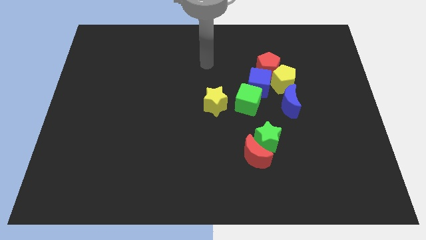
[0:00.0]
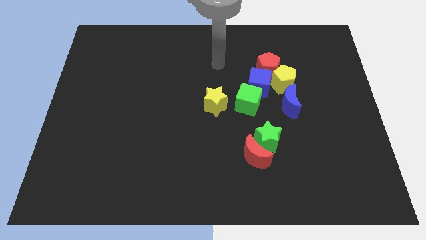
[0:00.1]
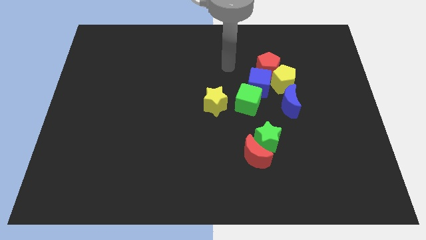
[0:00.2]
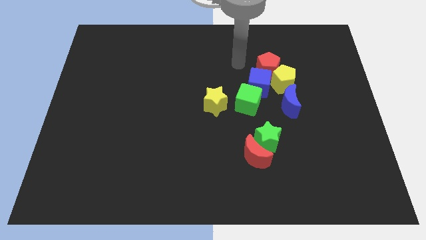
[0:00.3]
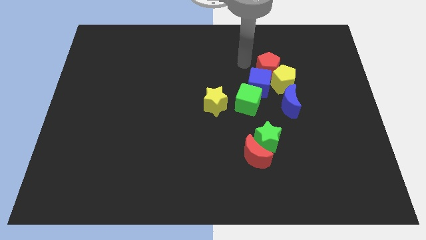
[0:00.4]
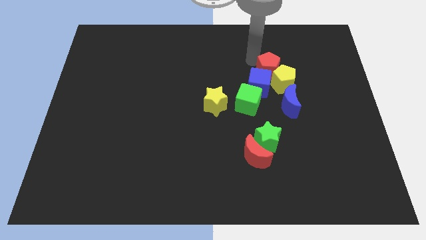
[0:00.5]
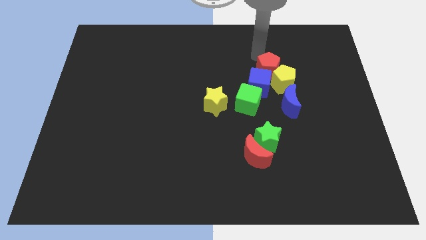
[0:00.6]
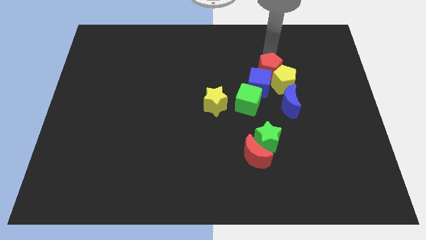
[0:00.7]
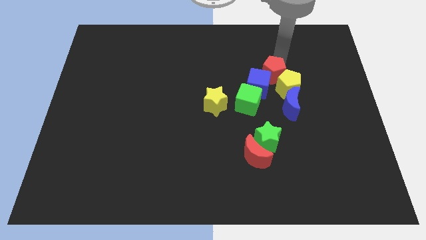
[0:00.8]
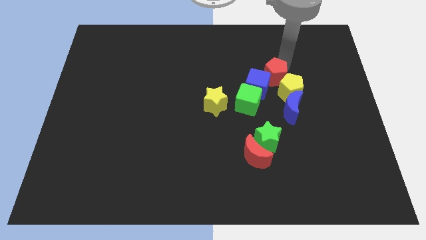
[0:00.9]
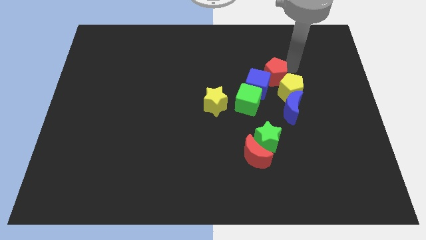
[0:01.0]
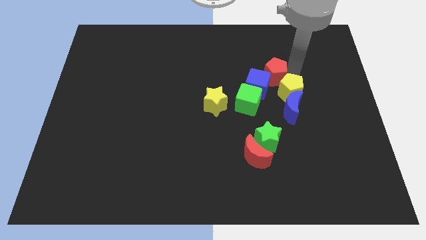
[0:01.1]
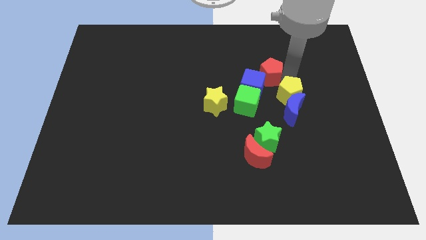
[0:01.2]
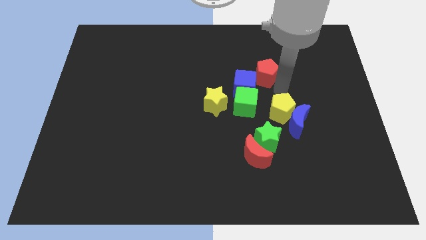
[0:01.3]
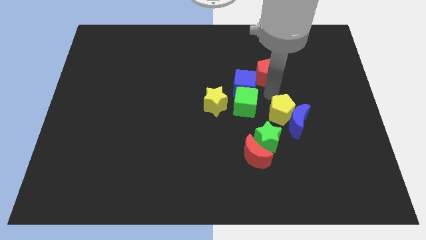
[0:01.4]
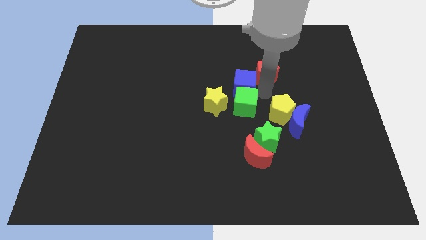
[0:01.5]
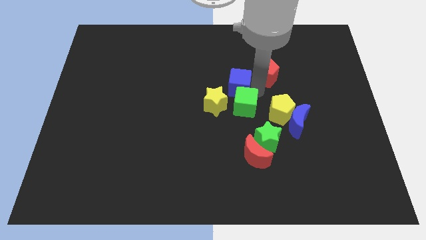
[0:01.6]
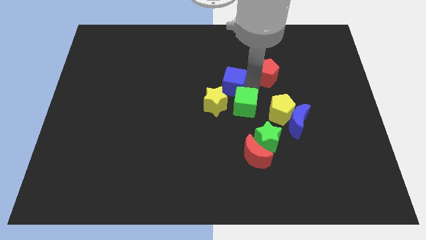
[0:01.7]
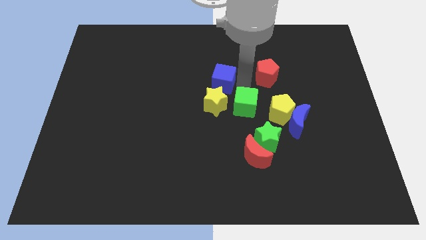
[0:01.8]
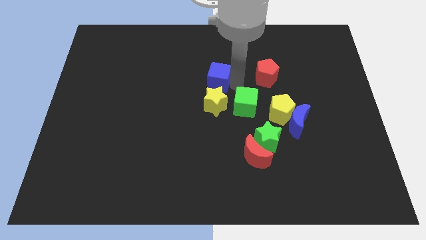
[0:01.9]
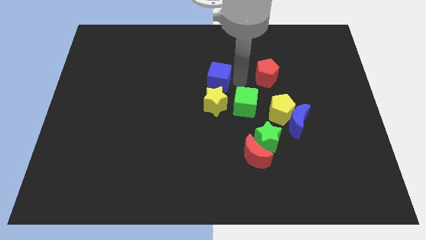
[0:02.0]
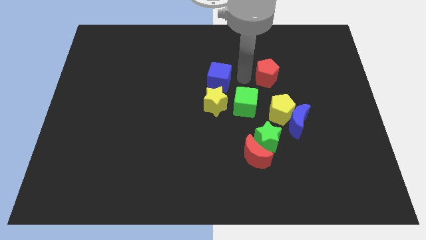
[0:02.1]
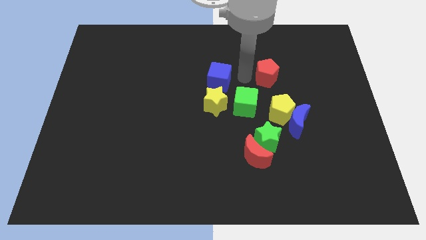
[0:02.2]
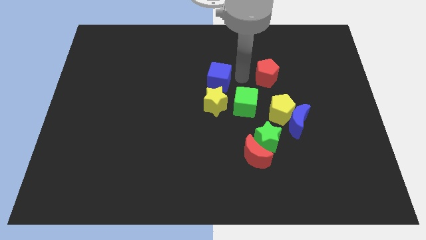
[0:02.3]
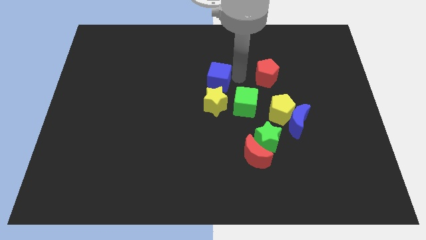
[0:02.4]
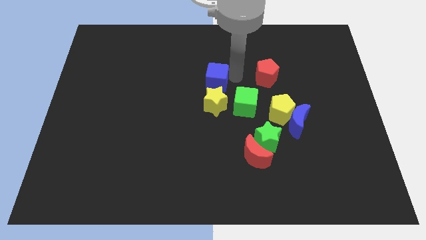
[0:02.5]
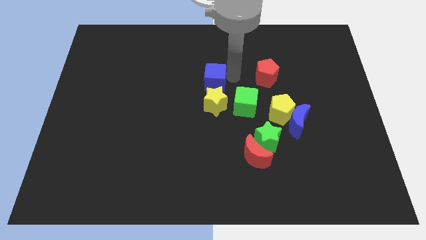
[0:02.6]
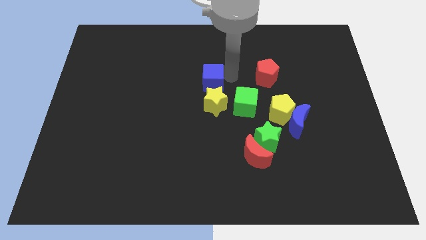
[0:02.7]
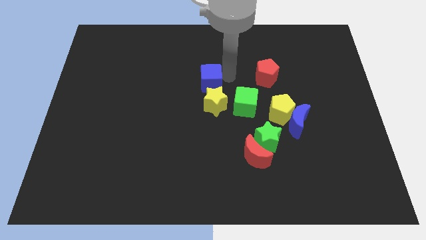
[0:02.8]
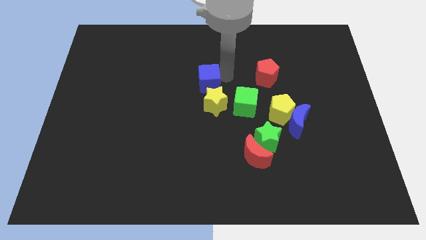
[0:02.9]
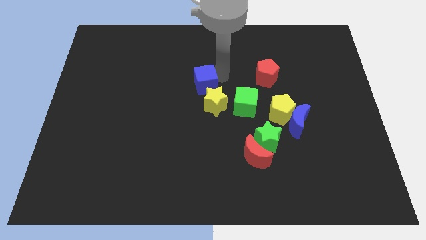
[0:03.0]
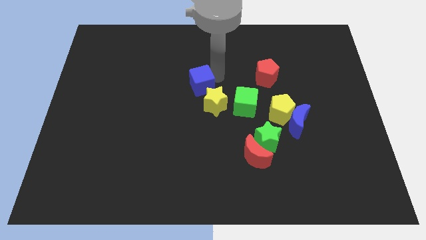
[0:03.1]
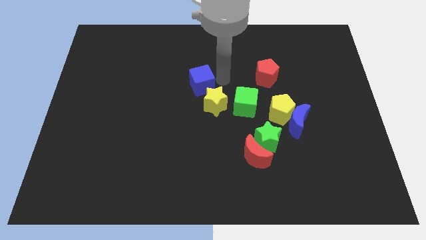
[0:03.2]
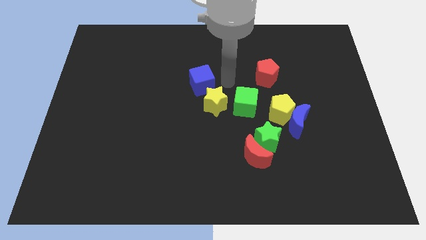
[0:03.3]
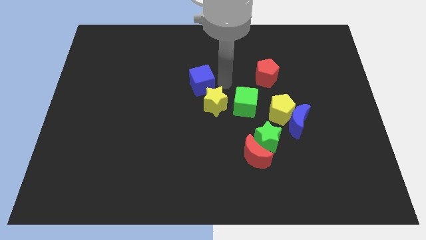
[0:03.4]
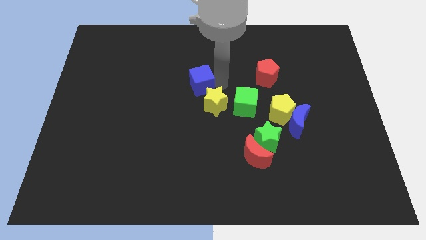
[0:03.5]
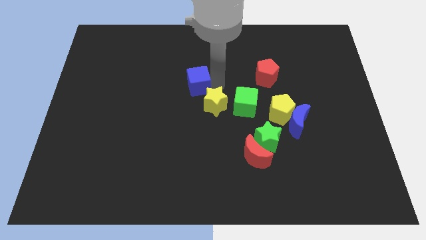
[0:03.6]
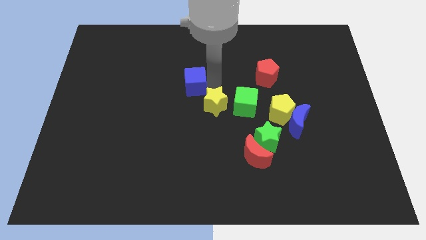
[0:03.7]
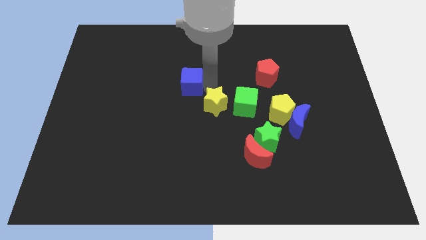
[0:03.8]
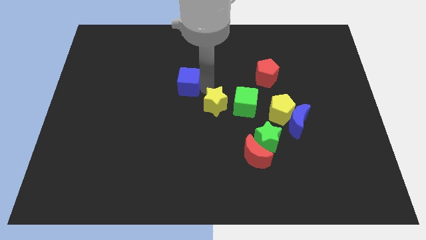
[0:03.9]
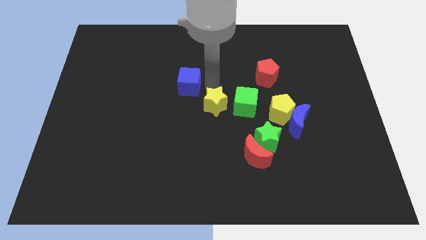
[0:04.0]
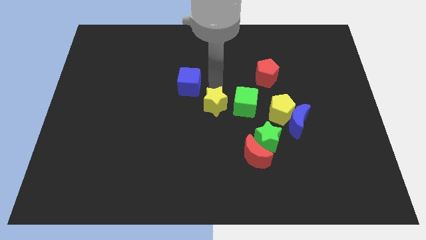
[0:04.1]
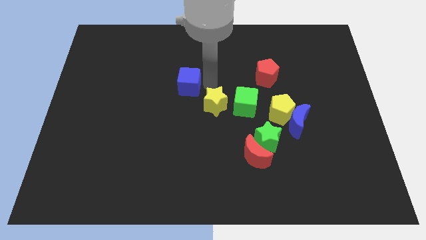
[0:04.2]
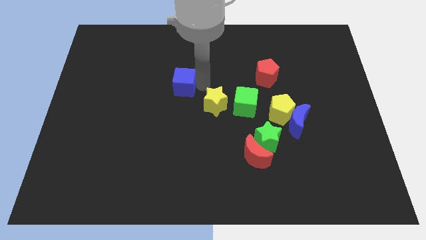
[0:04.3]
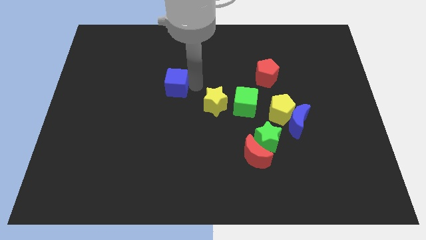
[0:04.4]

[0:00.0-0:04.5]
slide the blue cube left

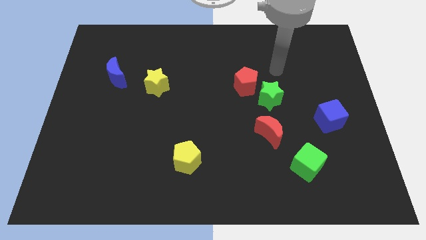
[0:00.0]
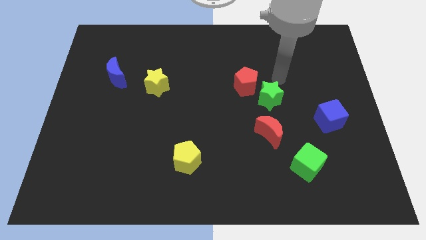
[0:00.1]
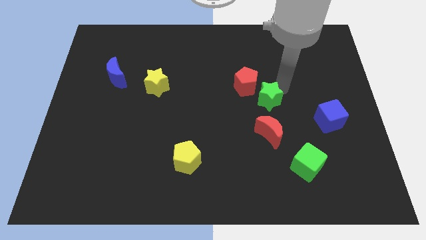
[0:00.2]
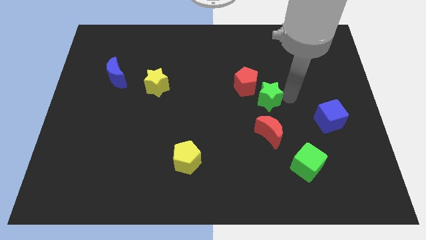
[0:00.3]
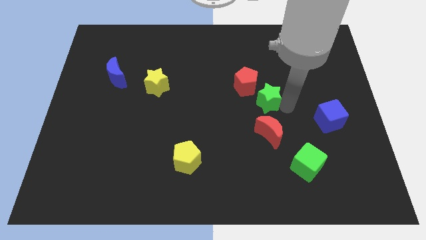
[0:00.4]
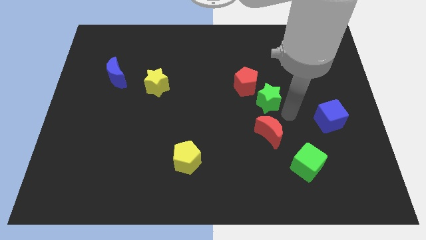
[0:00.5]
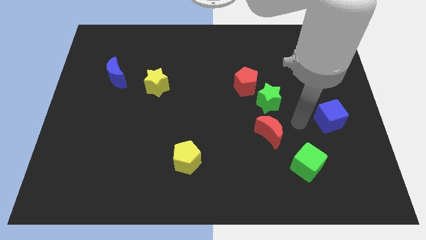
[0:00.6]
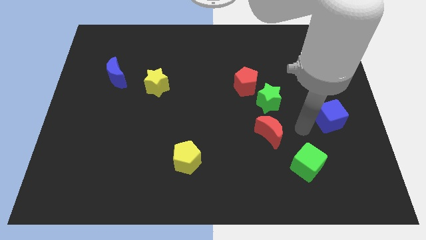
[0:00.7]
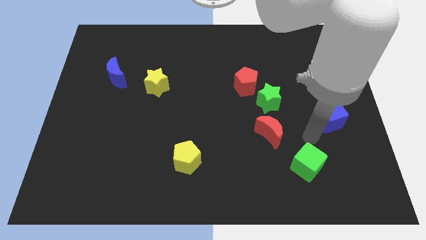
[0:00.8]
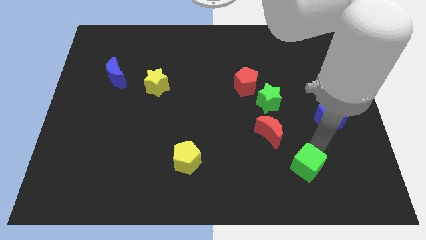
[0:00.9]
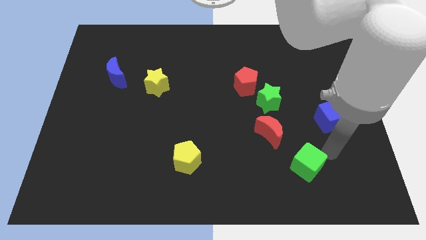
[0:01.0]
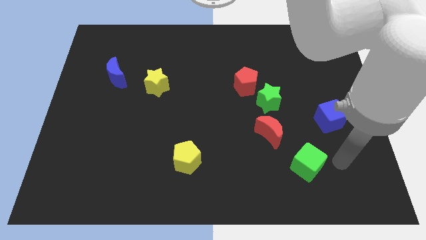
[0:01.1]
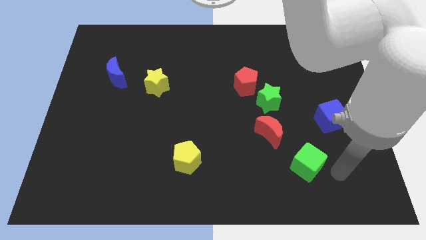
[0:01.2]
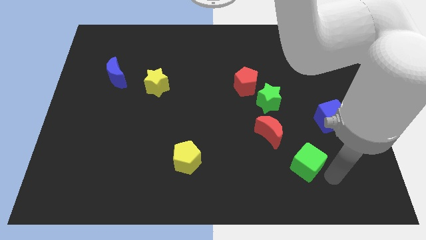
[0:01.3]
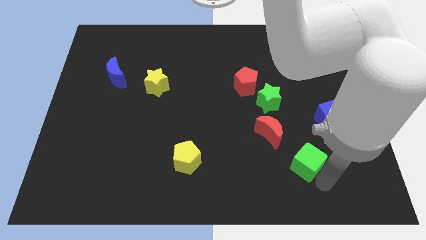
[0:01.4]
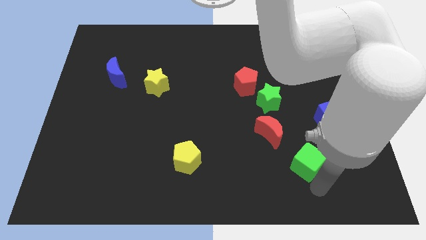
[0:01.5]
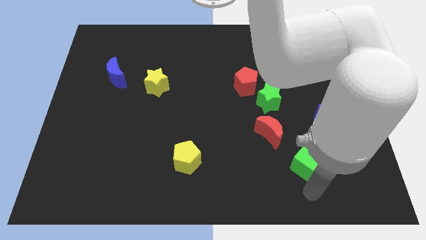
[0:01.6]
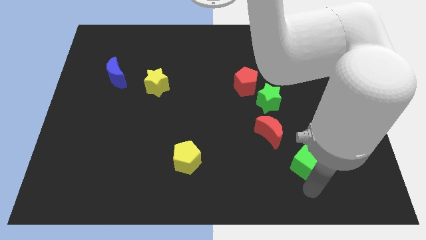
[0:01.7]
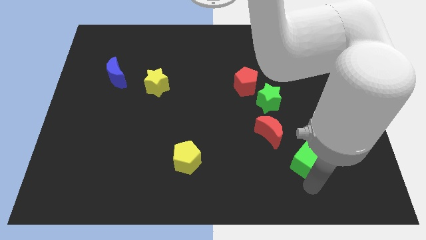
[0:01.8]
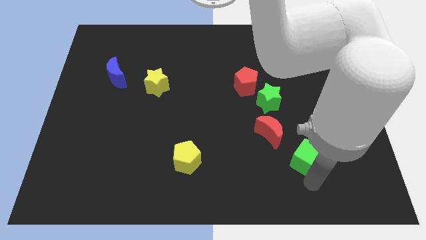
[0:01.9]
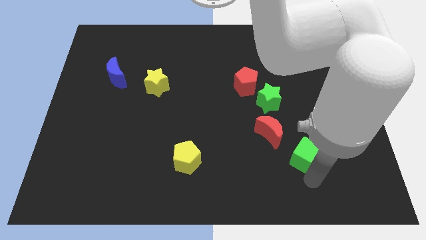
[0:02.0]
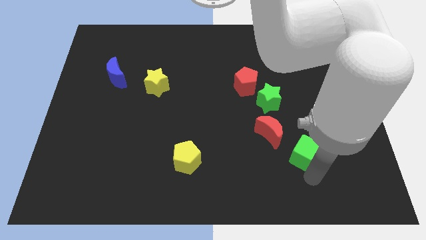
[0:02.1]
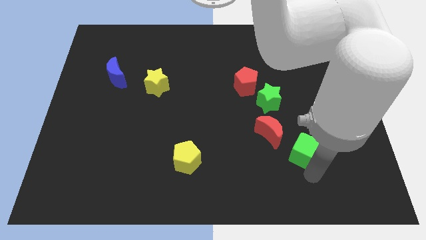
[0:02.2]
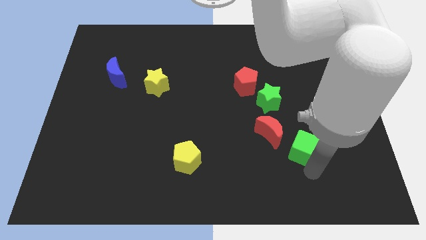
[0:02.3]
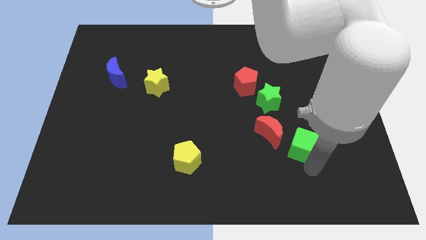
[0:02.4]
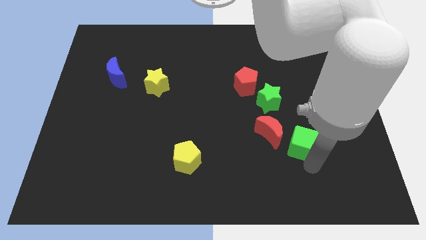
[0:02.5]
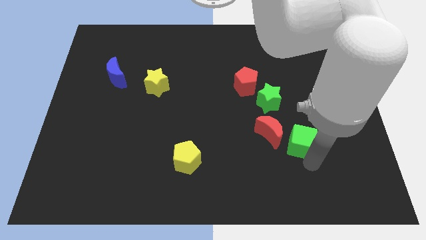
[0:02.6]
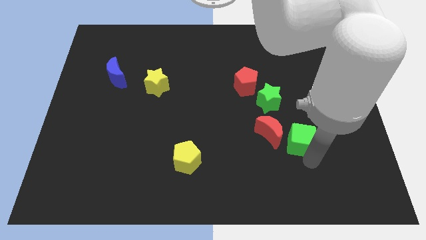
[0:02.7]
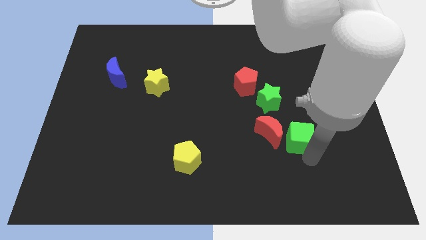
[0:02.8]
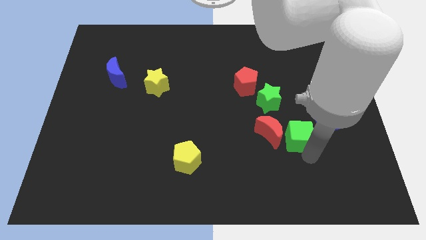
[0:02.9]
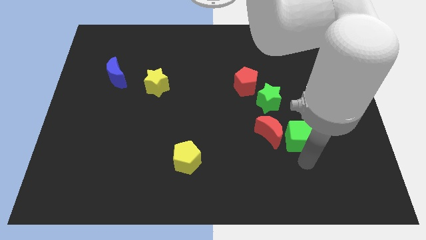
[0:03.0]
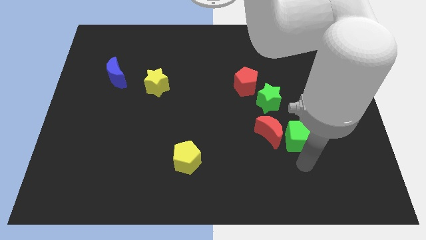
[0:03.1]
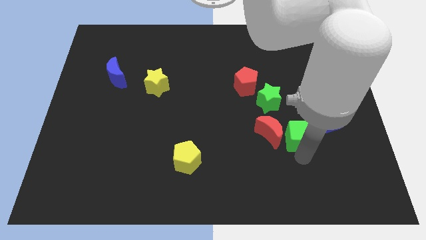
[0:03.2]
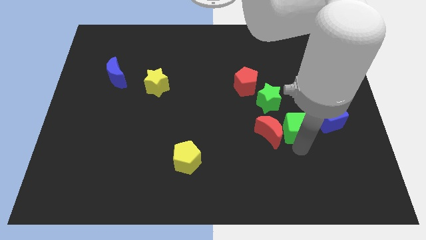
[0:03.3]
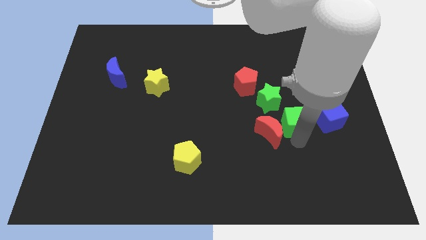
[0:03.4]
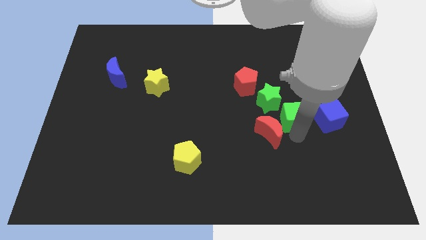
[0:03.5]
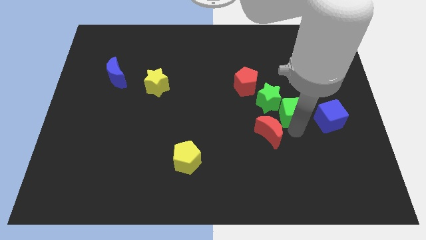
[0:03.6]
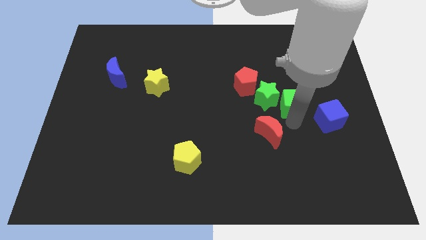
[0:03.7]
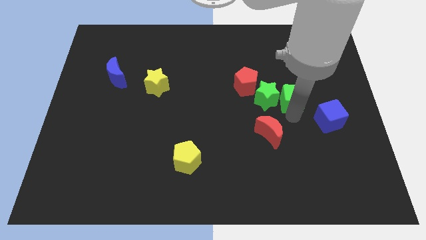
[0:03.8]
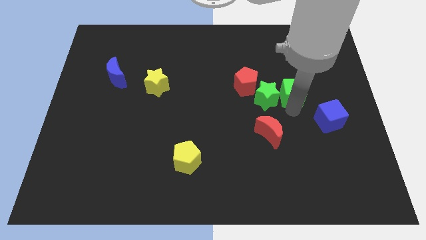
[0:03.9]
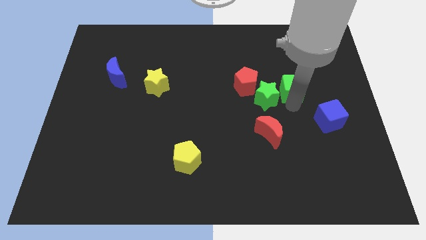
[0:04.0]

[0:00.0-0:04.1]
move the green cube up
